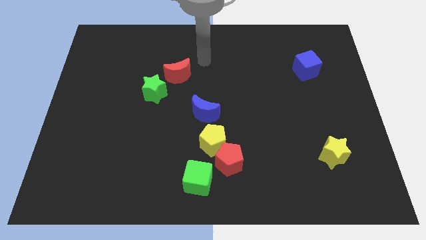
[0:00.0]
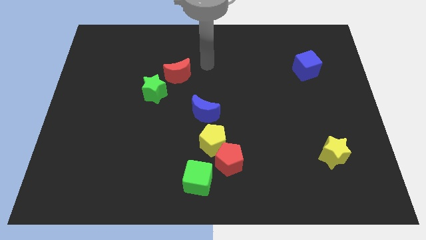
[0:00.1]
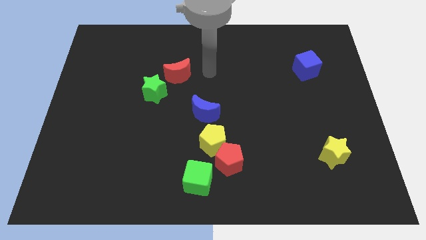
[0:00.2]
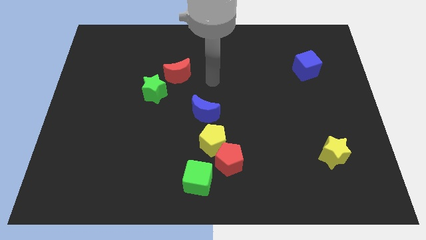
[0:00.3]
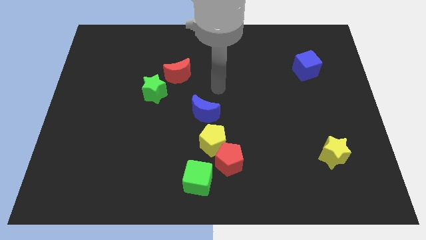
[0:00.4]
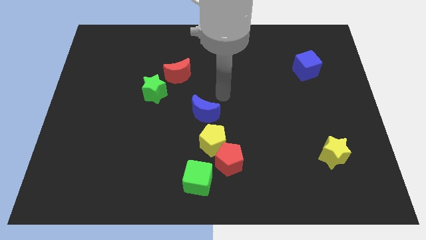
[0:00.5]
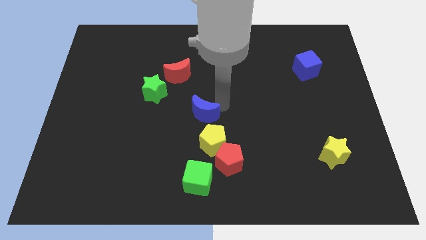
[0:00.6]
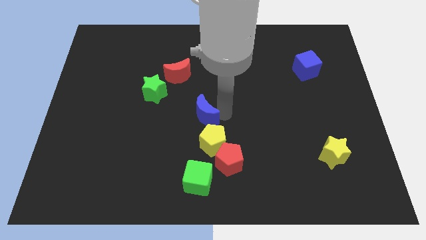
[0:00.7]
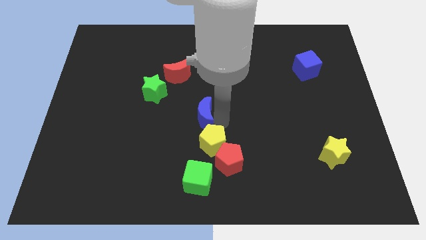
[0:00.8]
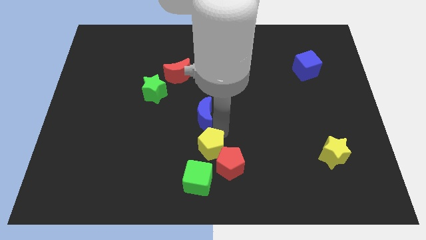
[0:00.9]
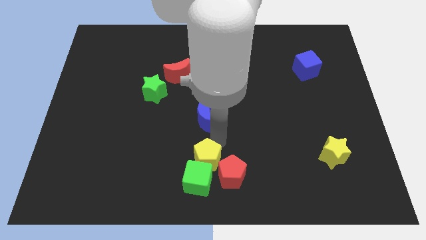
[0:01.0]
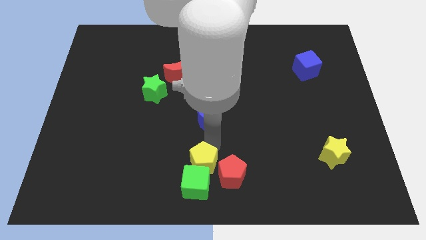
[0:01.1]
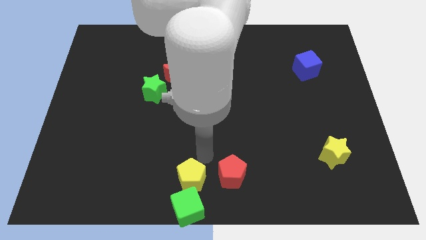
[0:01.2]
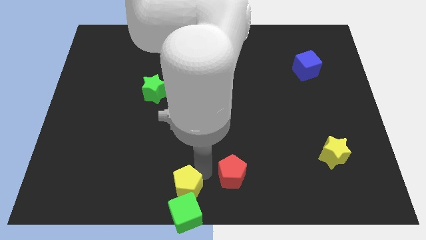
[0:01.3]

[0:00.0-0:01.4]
move the red pentagon away from the yellow pentagon and green cube

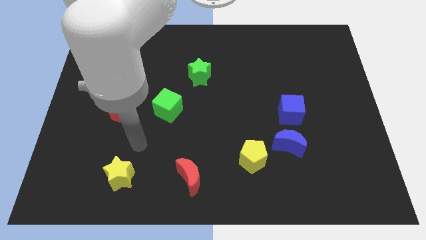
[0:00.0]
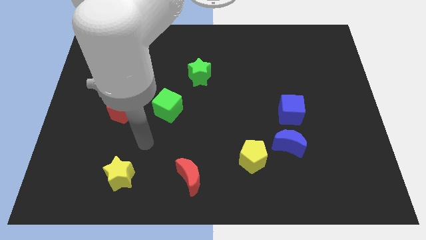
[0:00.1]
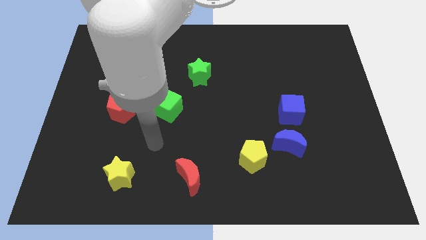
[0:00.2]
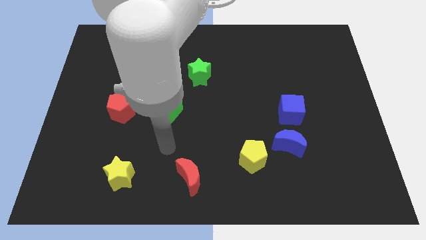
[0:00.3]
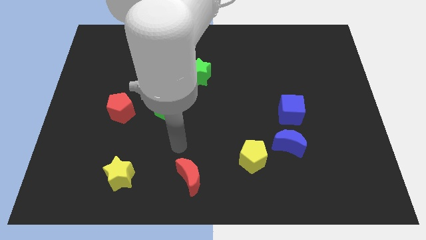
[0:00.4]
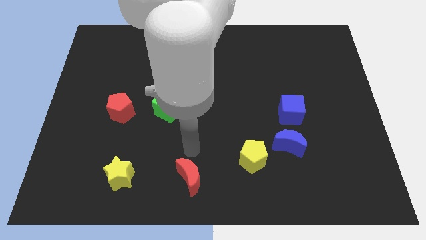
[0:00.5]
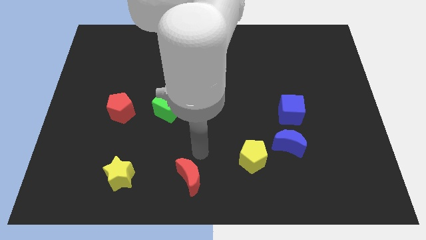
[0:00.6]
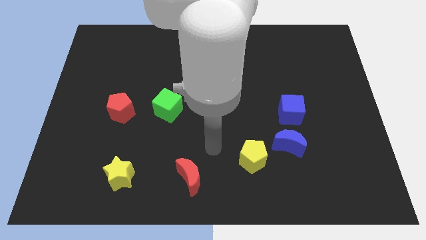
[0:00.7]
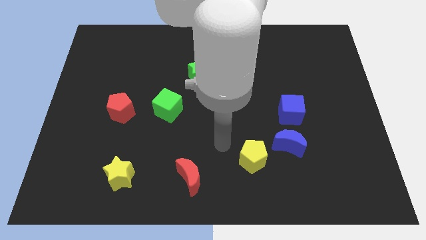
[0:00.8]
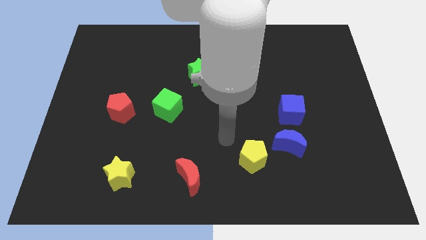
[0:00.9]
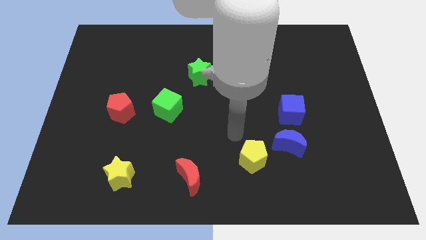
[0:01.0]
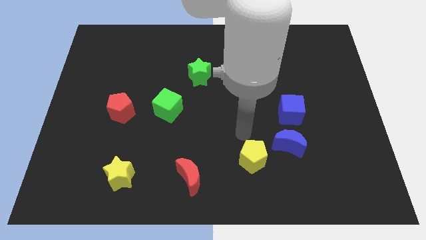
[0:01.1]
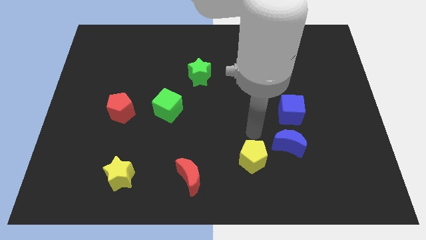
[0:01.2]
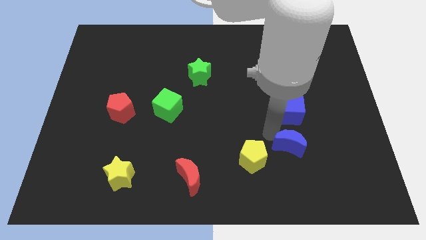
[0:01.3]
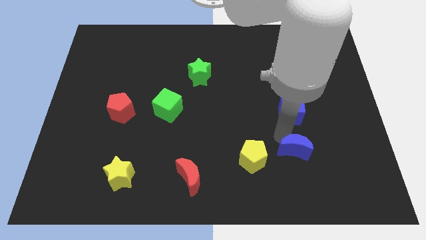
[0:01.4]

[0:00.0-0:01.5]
pull the blue cube apart from the blue moon

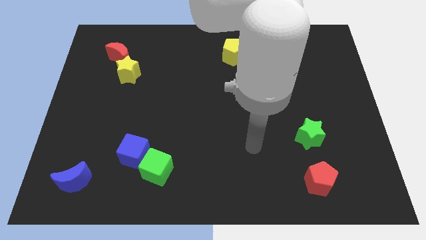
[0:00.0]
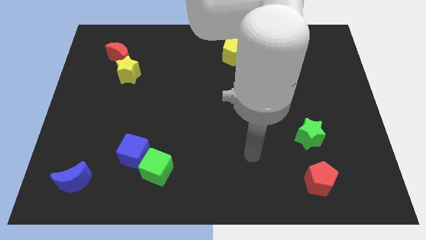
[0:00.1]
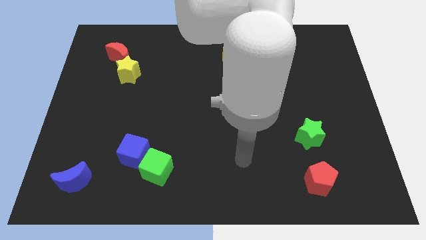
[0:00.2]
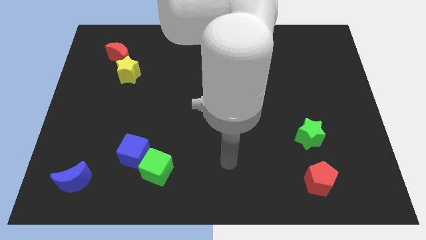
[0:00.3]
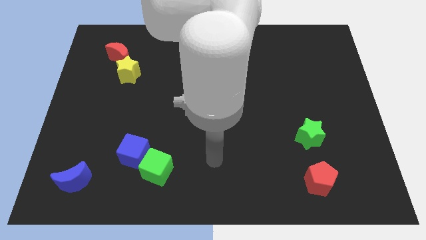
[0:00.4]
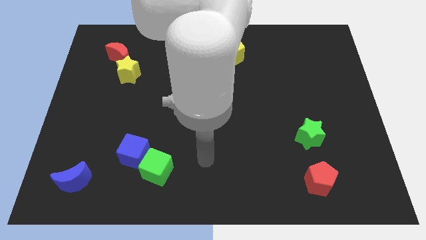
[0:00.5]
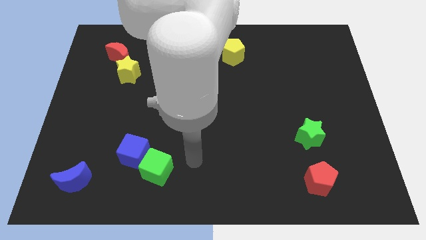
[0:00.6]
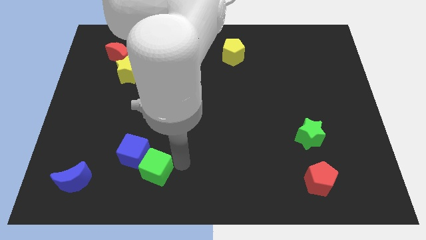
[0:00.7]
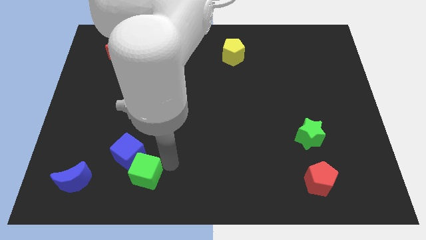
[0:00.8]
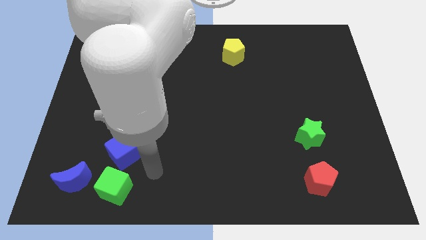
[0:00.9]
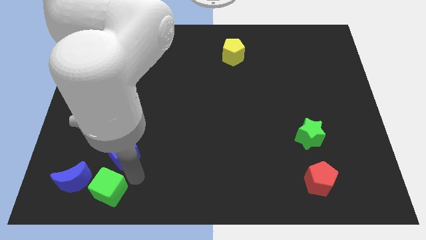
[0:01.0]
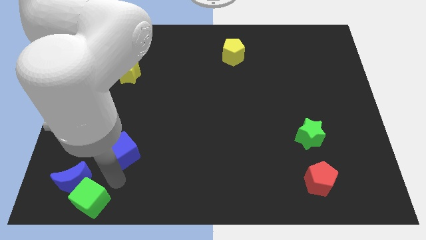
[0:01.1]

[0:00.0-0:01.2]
pull the blue cube apart from the green cube

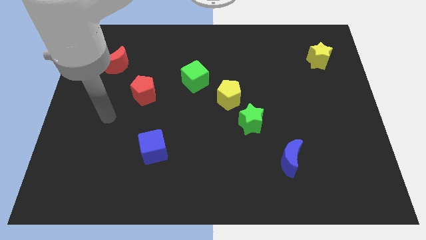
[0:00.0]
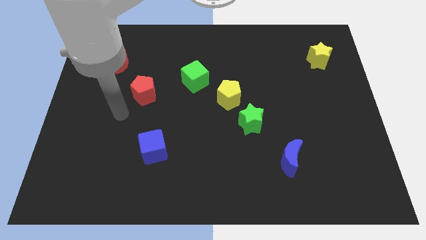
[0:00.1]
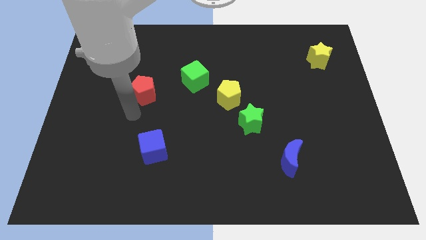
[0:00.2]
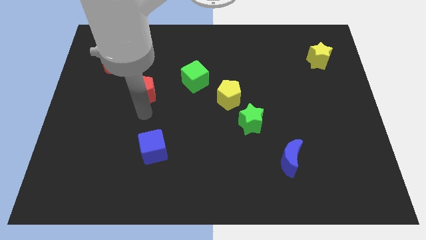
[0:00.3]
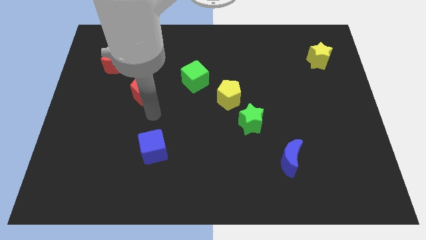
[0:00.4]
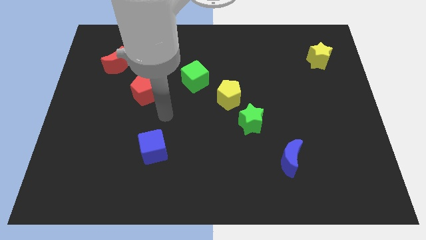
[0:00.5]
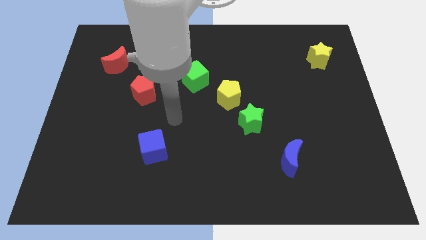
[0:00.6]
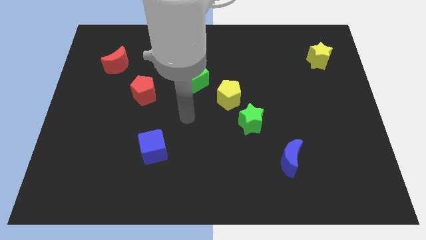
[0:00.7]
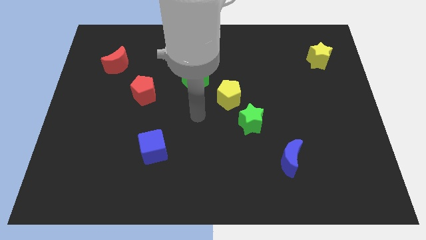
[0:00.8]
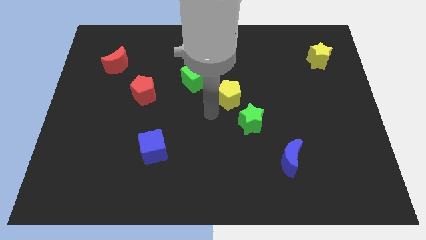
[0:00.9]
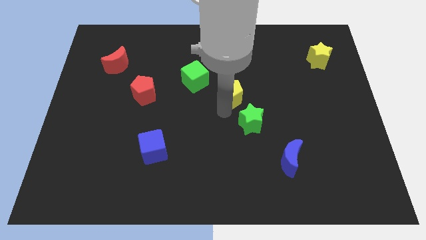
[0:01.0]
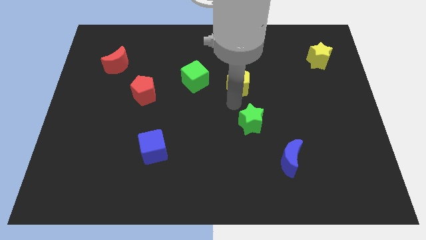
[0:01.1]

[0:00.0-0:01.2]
pull the green star apart from the yellow pentagon

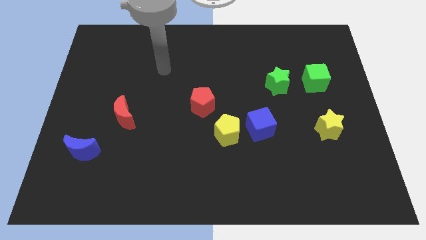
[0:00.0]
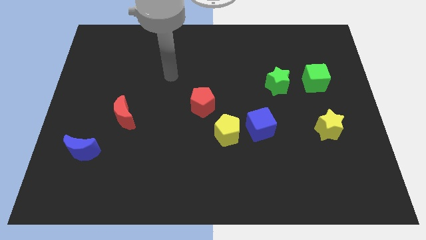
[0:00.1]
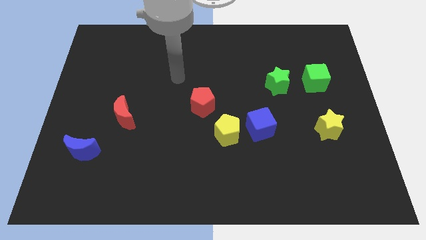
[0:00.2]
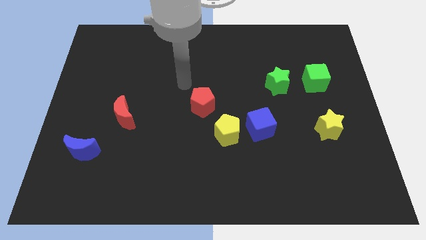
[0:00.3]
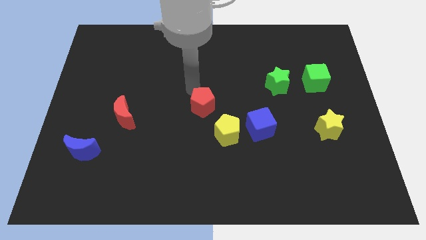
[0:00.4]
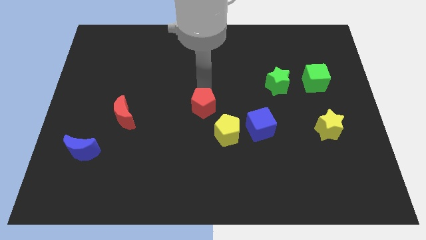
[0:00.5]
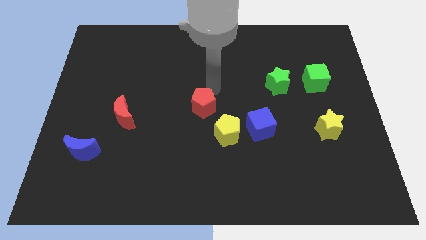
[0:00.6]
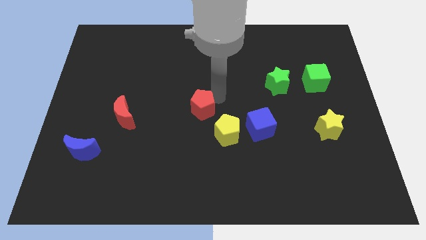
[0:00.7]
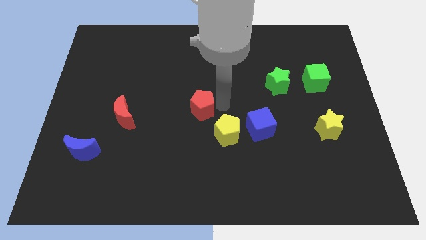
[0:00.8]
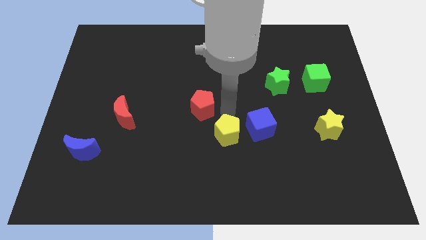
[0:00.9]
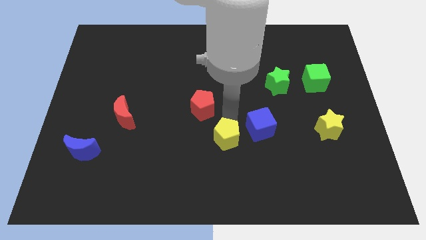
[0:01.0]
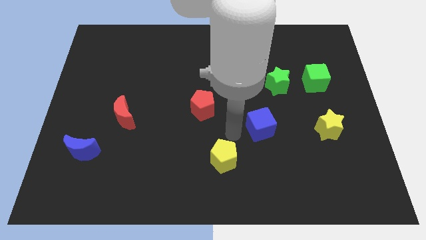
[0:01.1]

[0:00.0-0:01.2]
pull the blue cube apart from the yellow pentagon

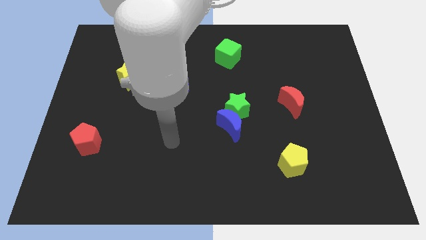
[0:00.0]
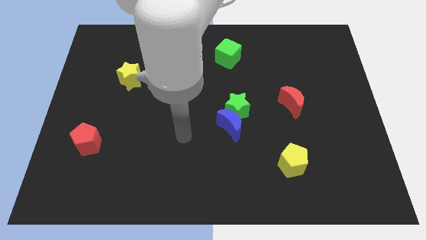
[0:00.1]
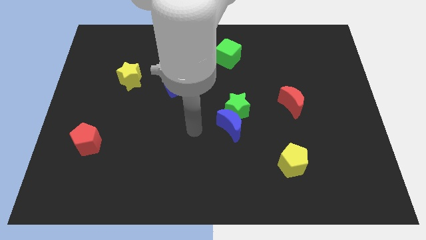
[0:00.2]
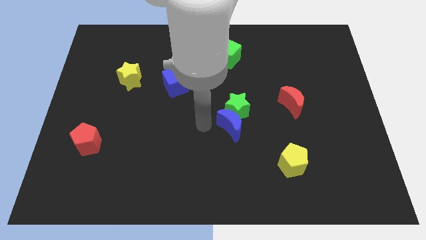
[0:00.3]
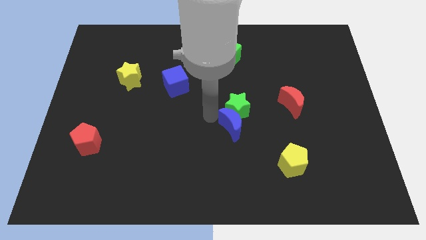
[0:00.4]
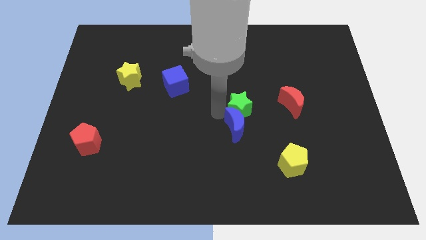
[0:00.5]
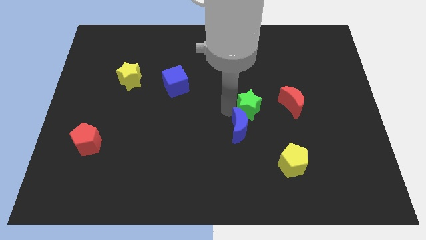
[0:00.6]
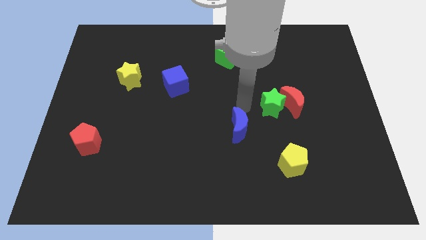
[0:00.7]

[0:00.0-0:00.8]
separate the blue moon from the green star

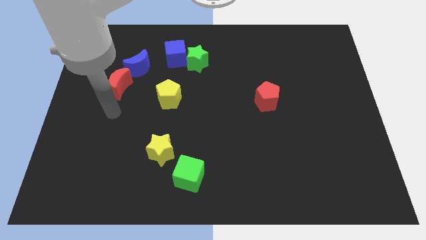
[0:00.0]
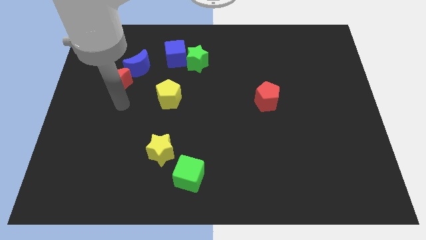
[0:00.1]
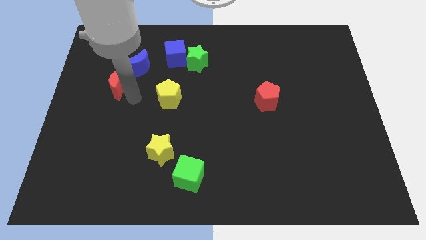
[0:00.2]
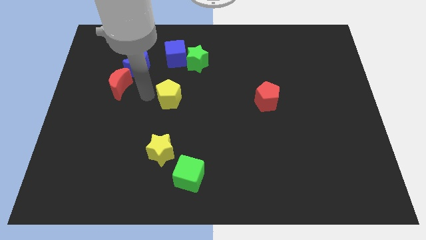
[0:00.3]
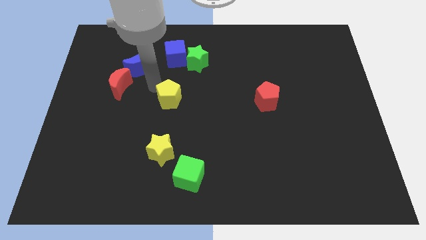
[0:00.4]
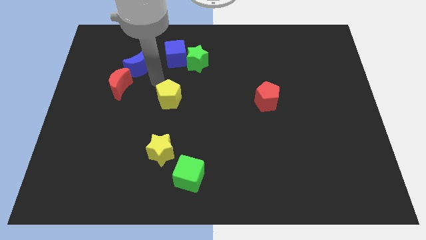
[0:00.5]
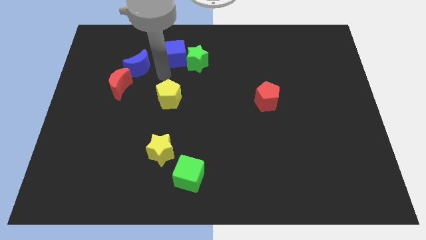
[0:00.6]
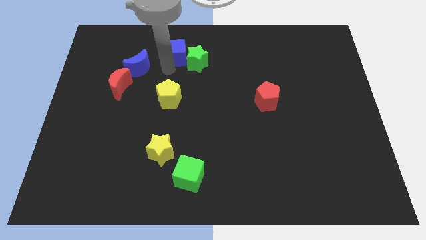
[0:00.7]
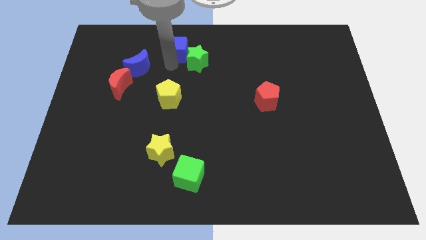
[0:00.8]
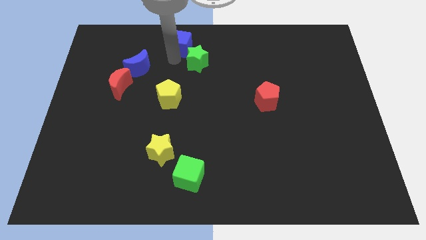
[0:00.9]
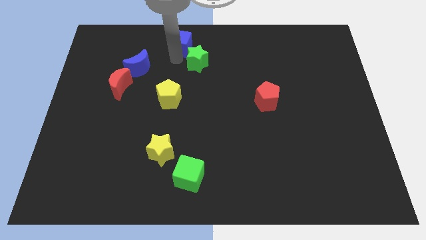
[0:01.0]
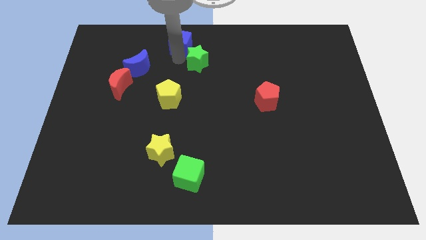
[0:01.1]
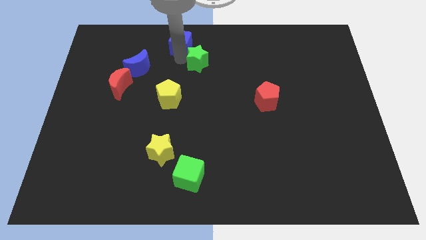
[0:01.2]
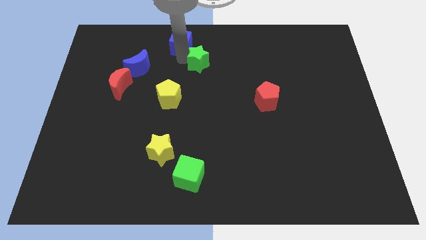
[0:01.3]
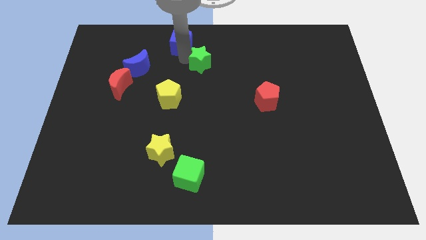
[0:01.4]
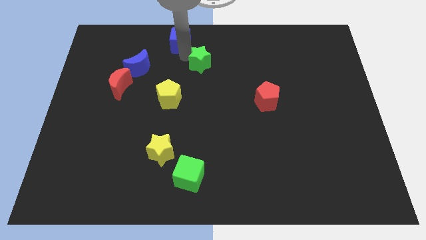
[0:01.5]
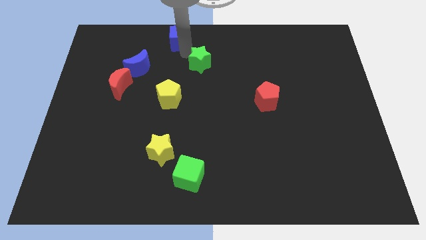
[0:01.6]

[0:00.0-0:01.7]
separate the green star from the blue cube
